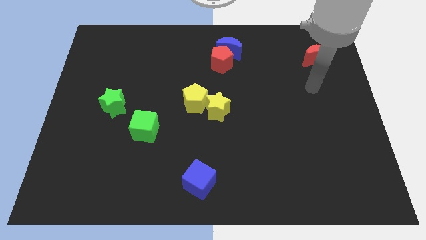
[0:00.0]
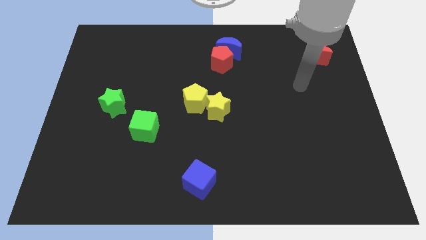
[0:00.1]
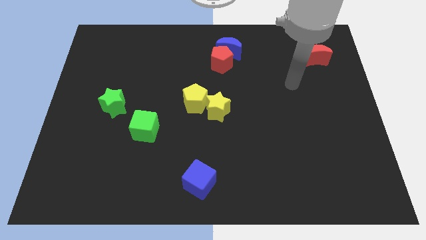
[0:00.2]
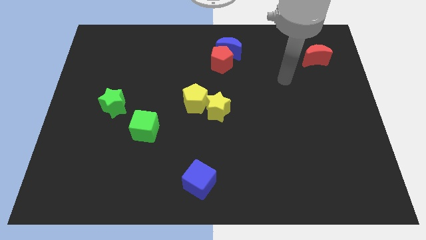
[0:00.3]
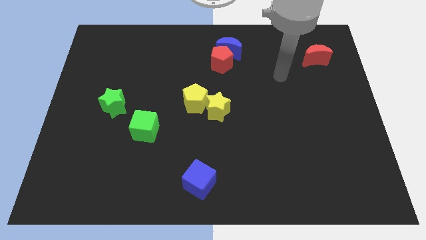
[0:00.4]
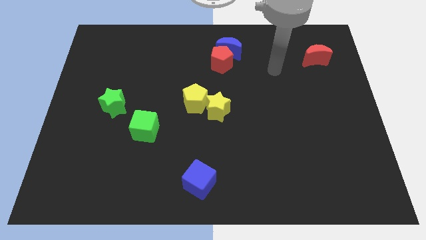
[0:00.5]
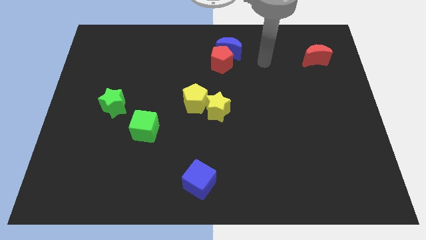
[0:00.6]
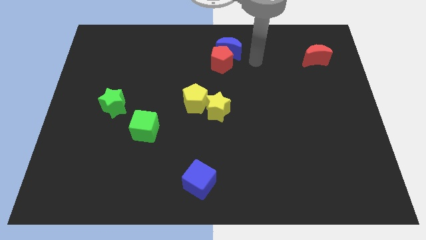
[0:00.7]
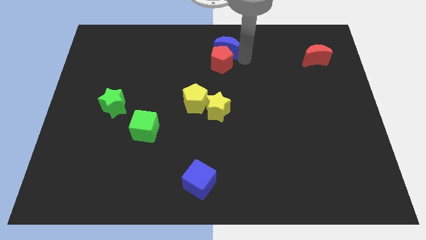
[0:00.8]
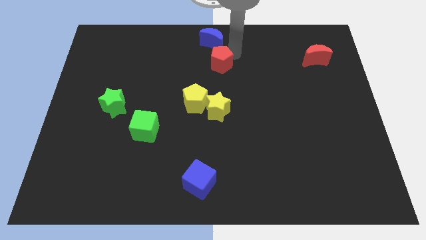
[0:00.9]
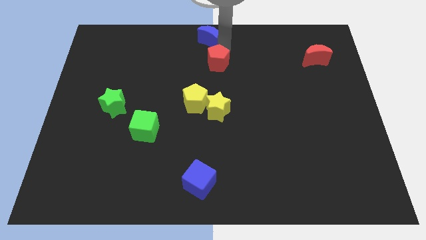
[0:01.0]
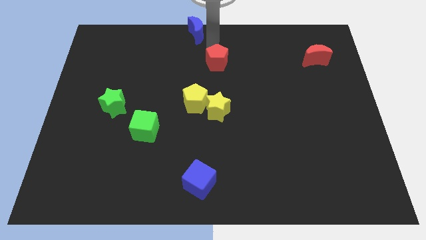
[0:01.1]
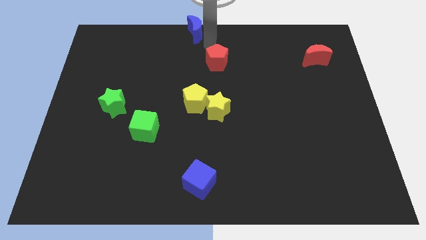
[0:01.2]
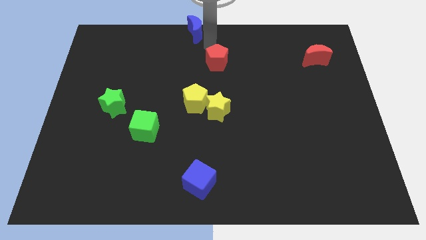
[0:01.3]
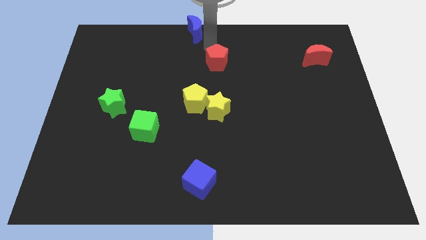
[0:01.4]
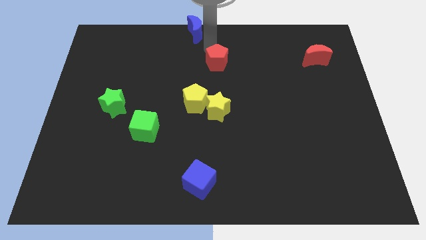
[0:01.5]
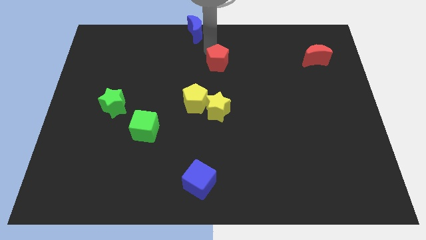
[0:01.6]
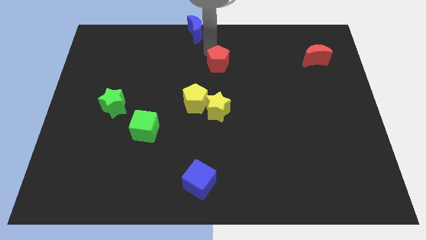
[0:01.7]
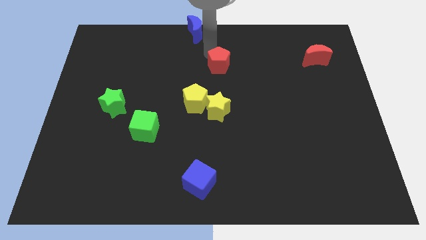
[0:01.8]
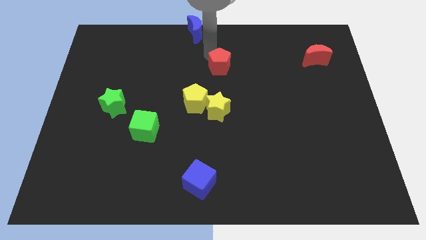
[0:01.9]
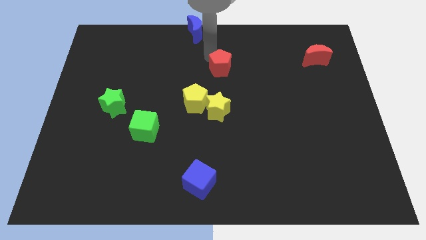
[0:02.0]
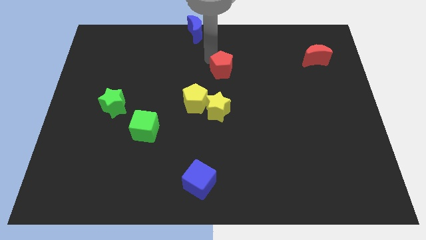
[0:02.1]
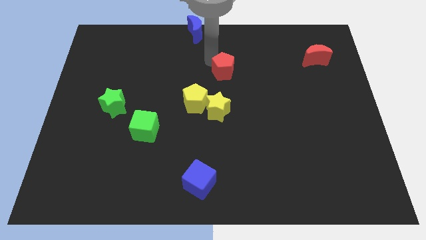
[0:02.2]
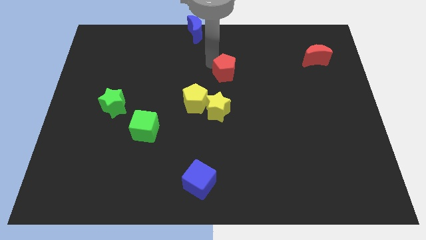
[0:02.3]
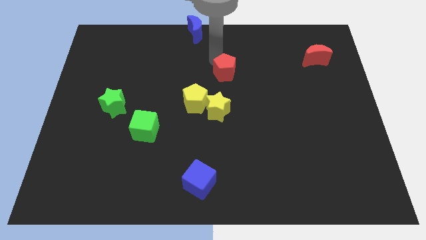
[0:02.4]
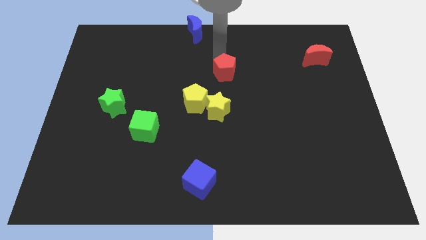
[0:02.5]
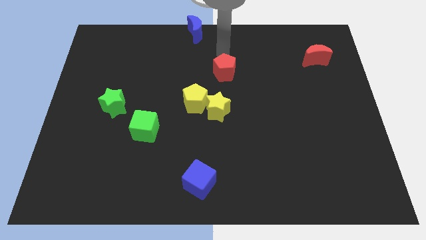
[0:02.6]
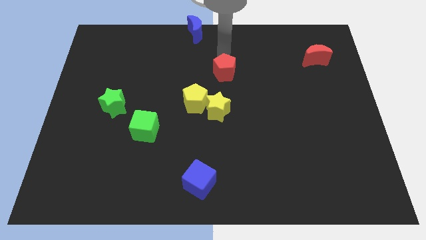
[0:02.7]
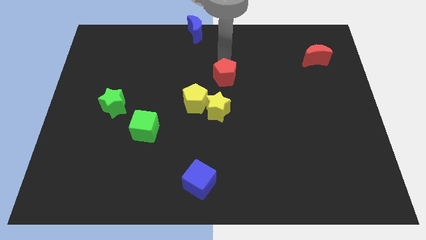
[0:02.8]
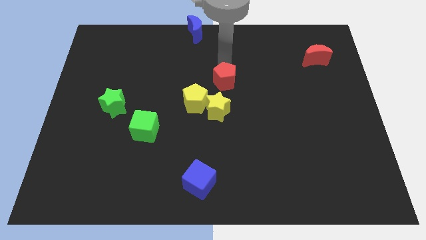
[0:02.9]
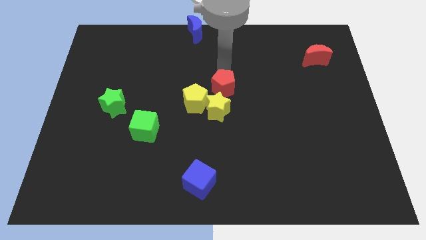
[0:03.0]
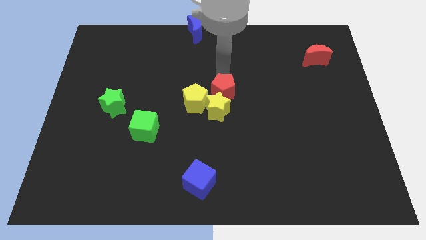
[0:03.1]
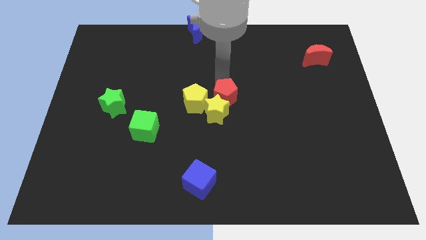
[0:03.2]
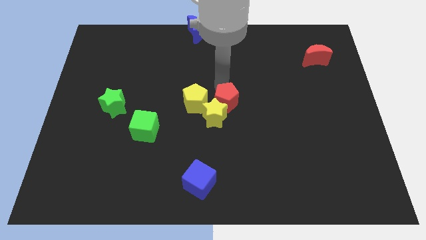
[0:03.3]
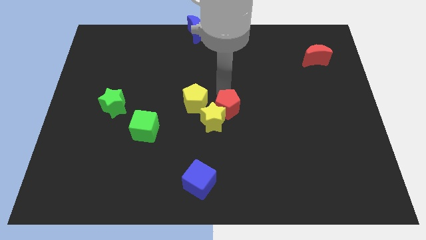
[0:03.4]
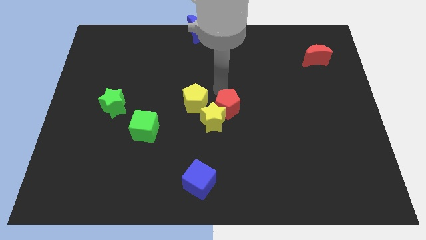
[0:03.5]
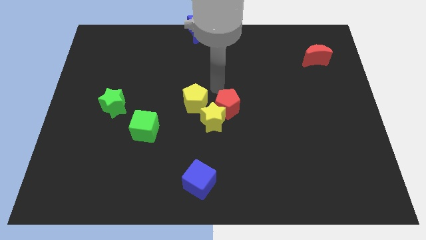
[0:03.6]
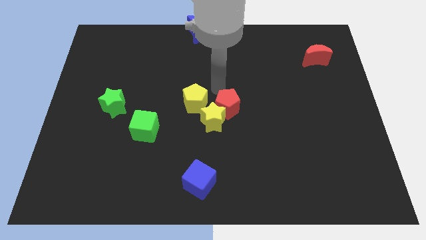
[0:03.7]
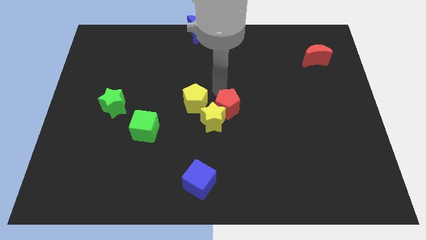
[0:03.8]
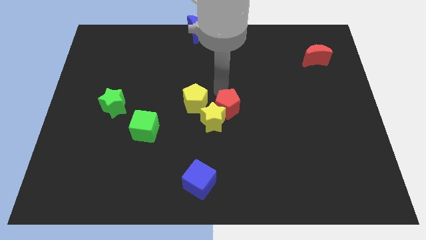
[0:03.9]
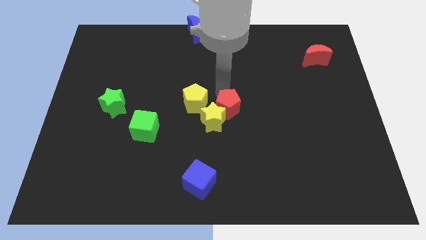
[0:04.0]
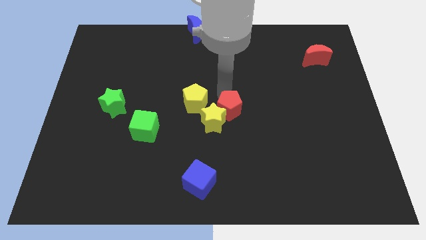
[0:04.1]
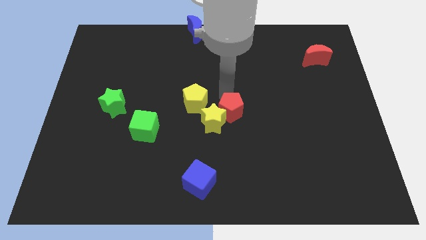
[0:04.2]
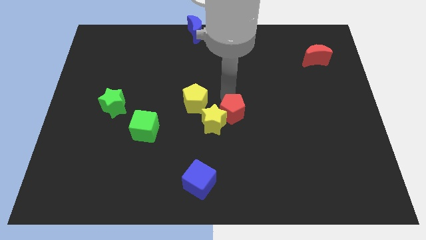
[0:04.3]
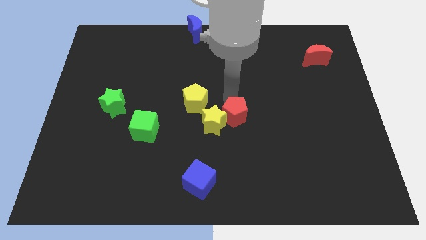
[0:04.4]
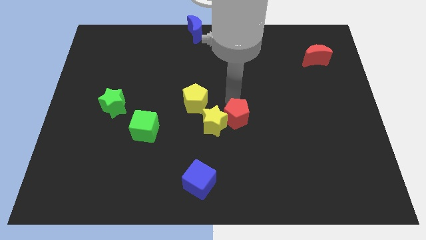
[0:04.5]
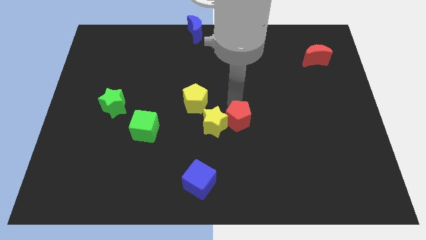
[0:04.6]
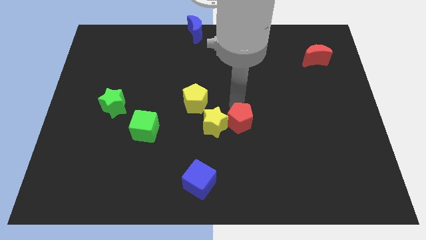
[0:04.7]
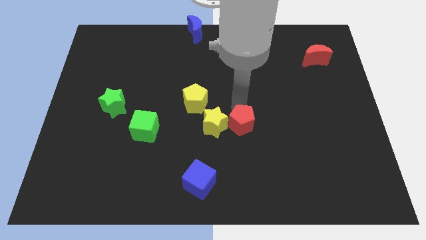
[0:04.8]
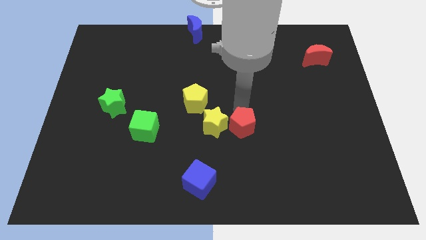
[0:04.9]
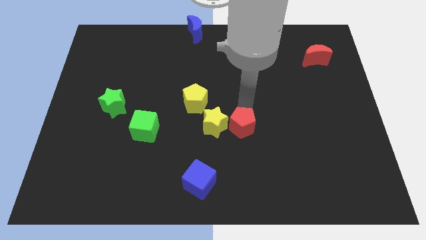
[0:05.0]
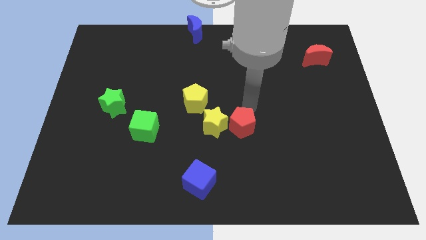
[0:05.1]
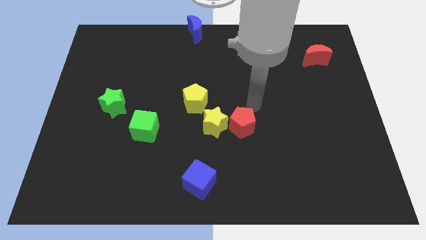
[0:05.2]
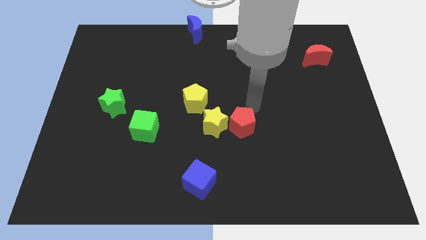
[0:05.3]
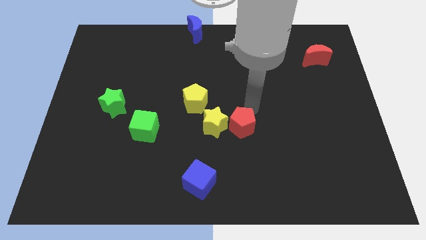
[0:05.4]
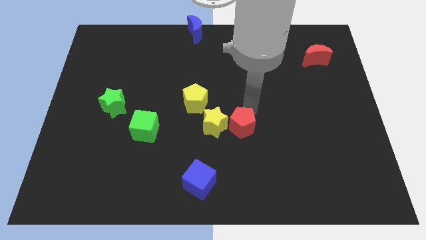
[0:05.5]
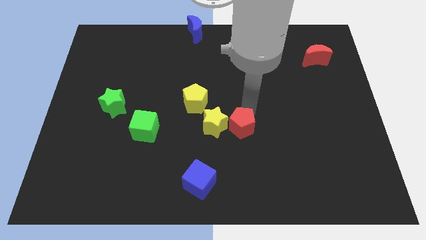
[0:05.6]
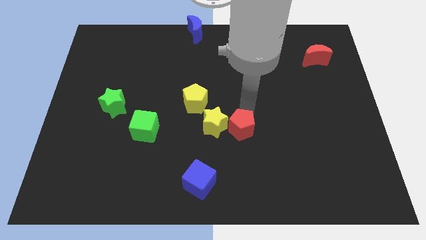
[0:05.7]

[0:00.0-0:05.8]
slide the red pentagon down

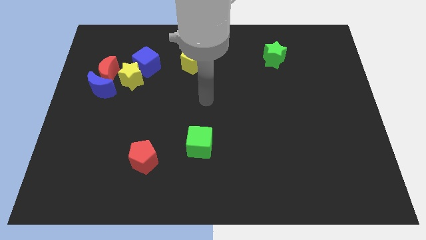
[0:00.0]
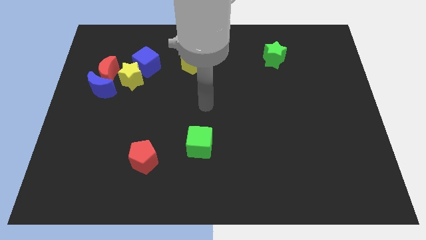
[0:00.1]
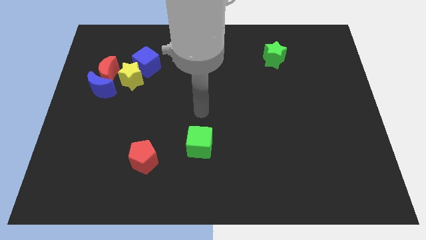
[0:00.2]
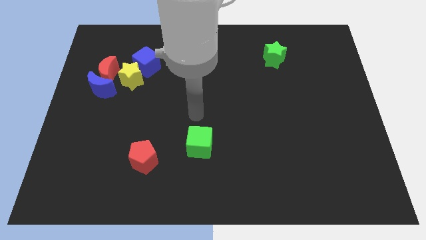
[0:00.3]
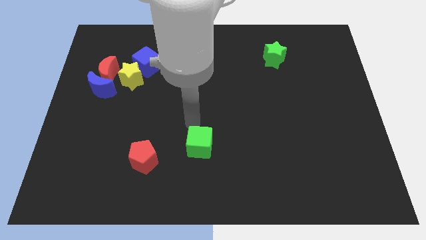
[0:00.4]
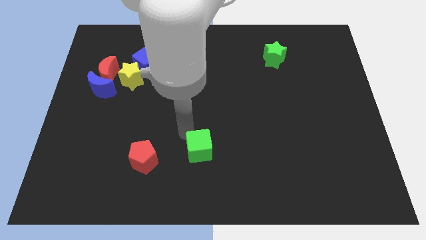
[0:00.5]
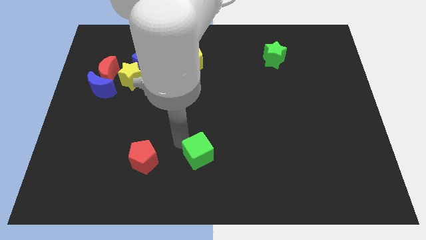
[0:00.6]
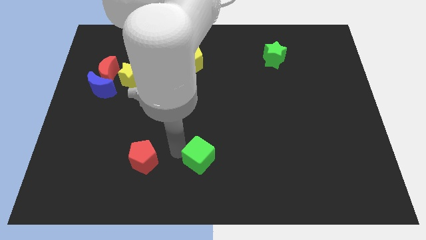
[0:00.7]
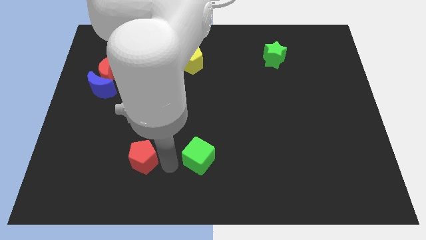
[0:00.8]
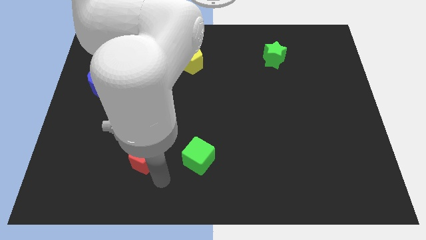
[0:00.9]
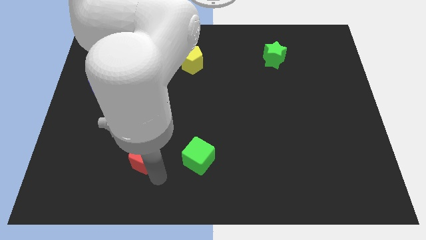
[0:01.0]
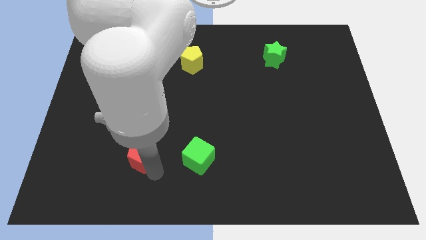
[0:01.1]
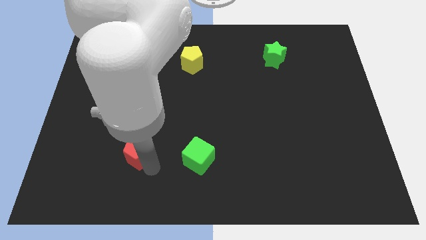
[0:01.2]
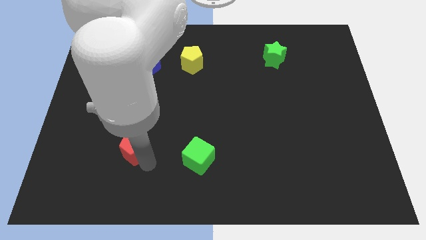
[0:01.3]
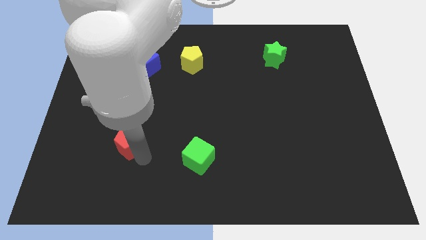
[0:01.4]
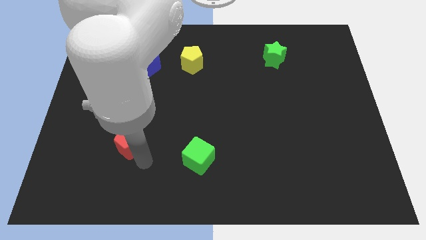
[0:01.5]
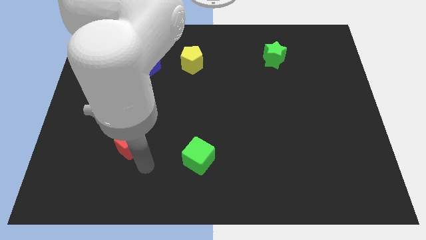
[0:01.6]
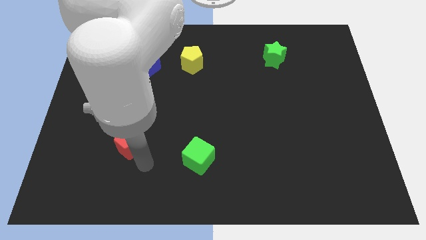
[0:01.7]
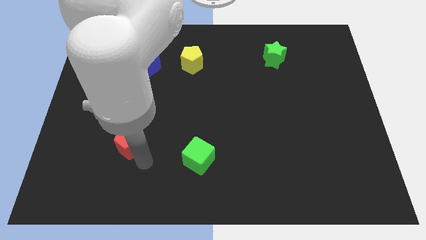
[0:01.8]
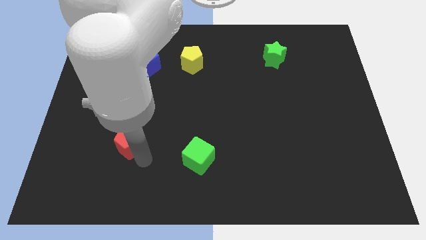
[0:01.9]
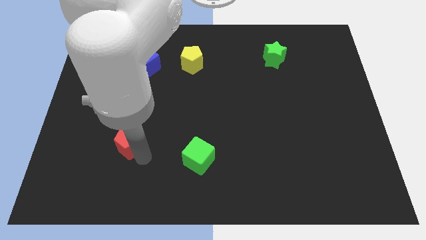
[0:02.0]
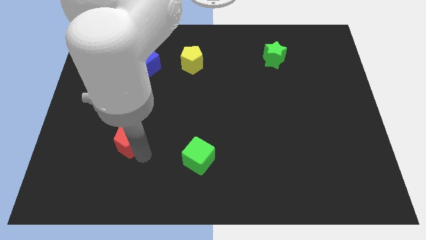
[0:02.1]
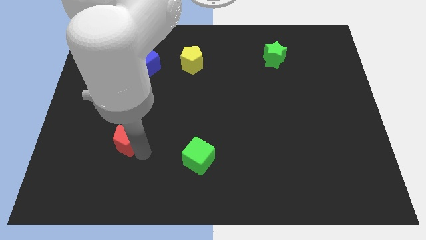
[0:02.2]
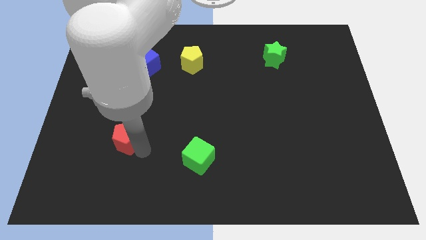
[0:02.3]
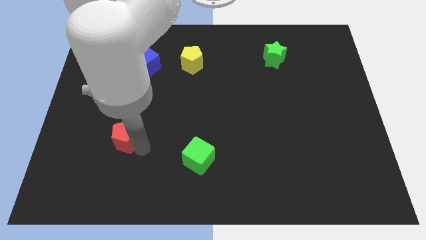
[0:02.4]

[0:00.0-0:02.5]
move the red pentagon a little bit upwards and to the left

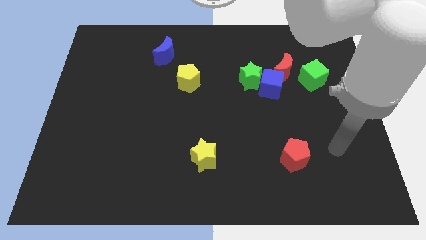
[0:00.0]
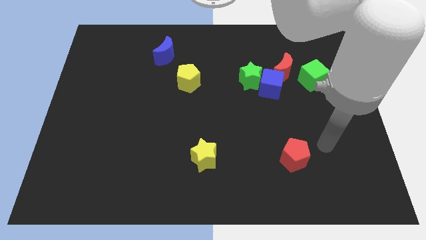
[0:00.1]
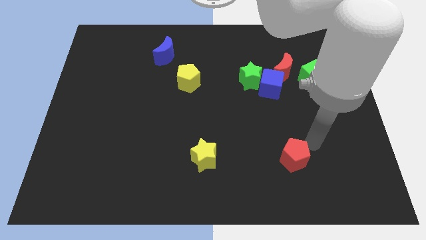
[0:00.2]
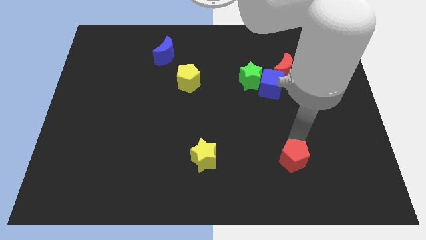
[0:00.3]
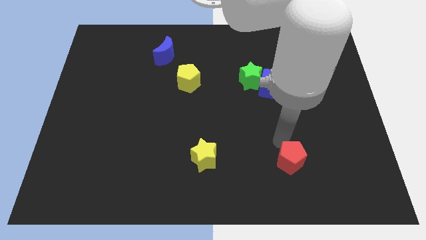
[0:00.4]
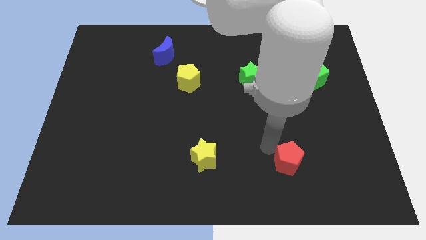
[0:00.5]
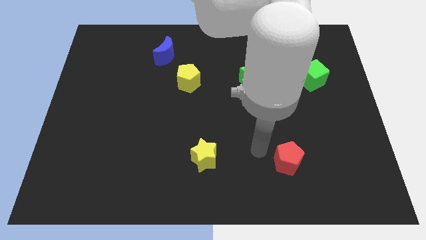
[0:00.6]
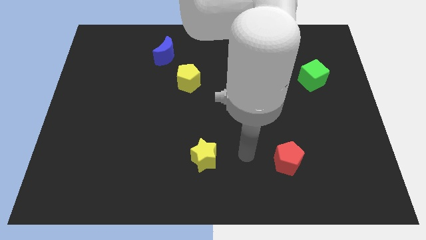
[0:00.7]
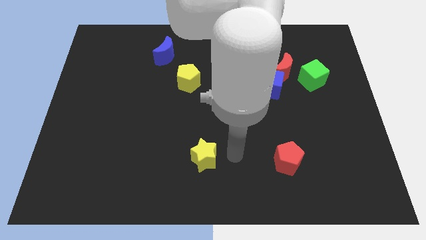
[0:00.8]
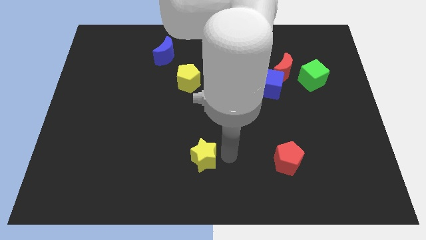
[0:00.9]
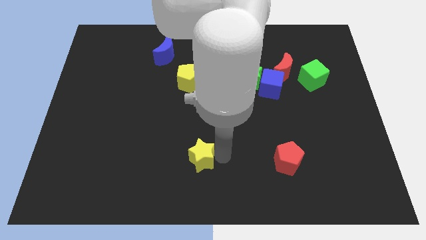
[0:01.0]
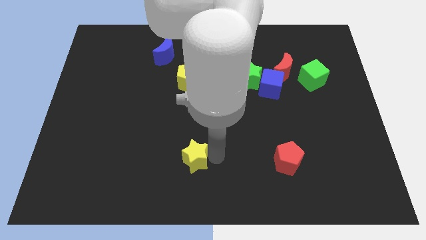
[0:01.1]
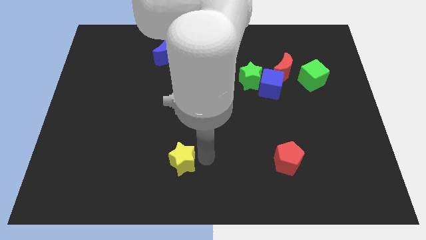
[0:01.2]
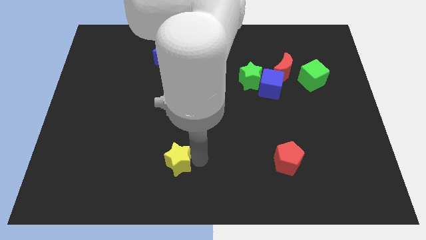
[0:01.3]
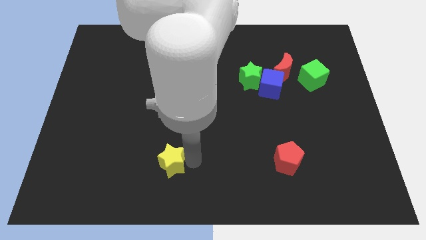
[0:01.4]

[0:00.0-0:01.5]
move the yellow star a little to the left
